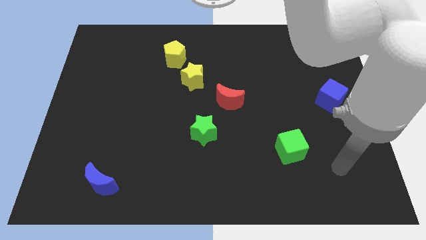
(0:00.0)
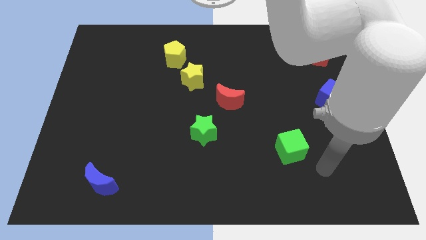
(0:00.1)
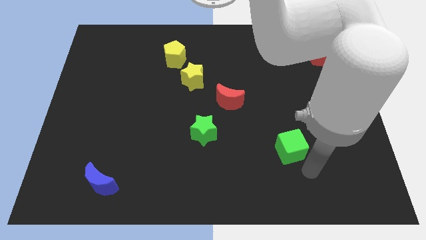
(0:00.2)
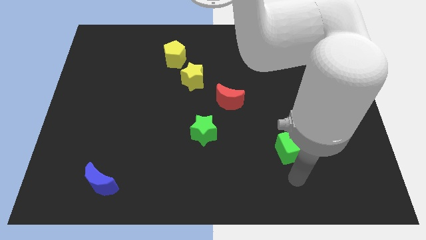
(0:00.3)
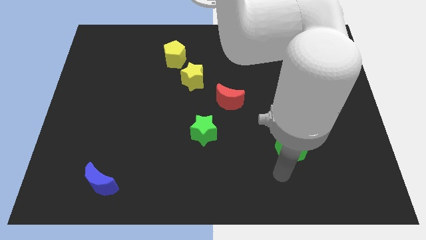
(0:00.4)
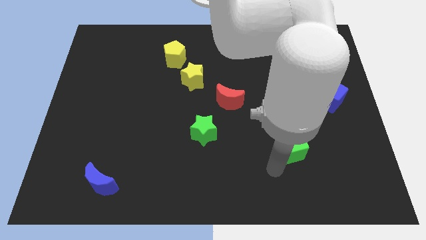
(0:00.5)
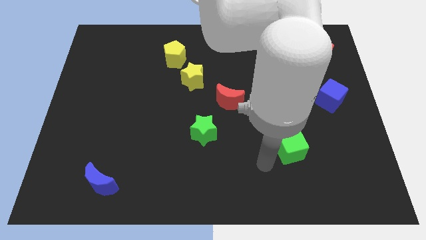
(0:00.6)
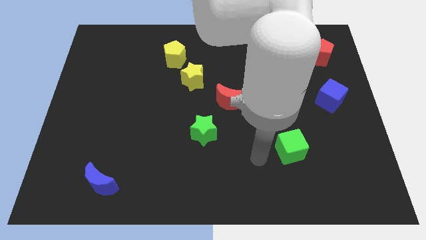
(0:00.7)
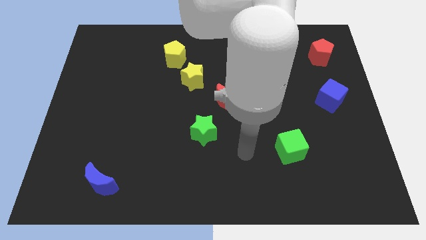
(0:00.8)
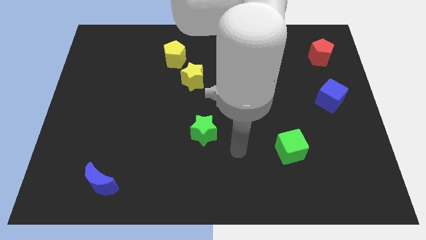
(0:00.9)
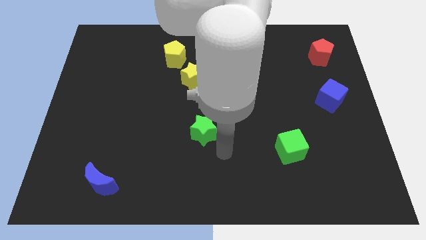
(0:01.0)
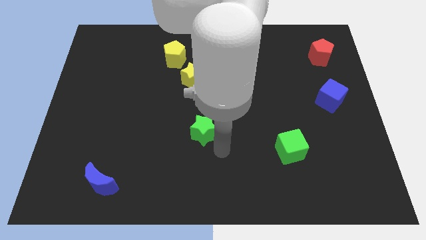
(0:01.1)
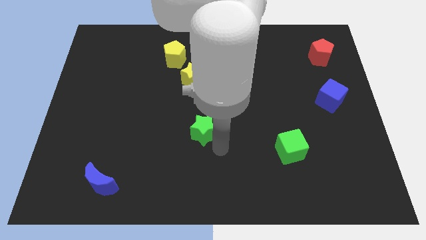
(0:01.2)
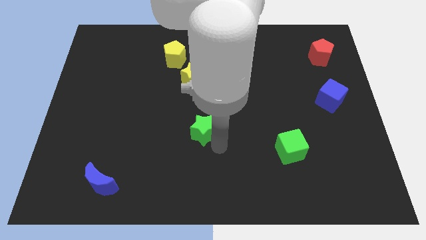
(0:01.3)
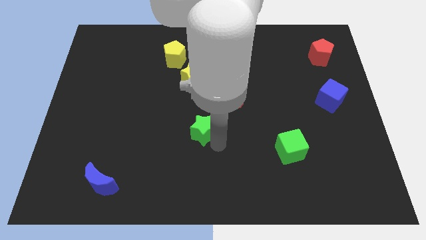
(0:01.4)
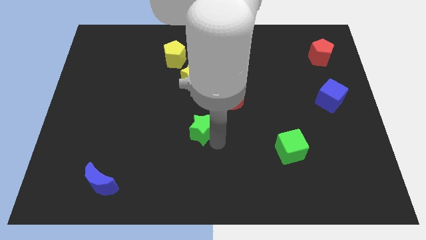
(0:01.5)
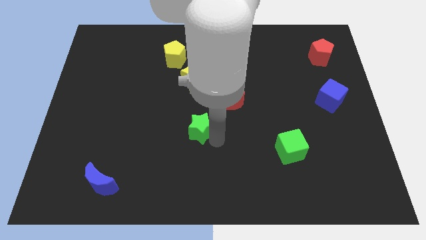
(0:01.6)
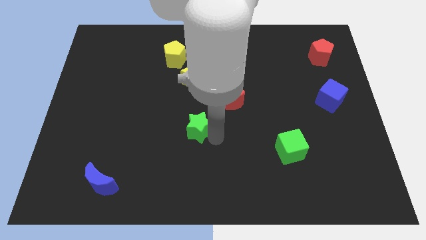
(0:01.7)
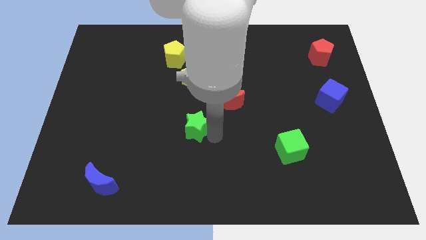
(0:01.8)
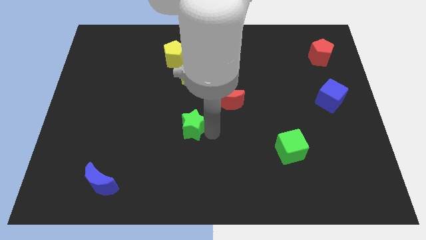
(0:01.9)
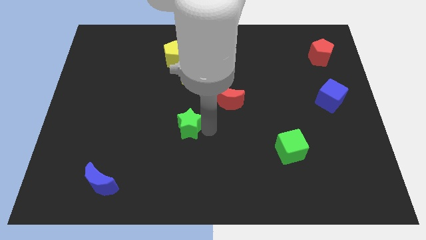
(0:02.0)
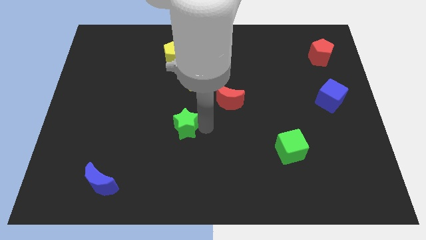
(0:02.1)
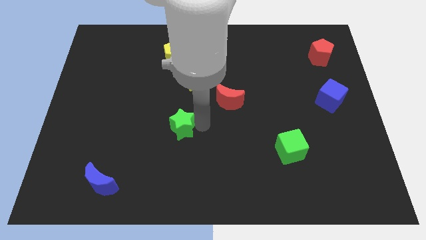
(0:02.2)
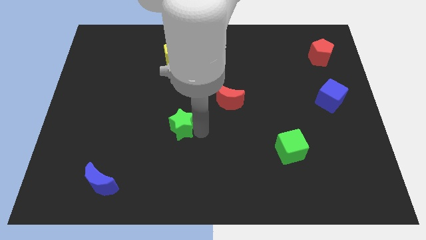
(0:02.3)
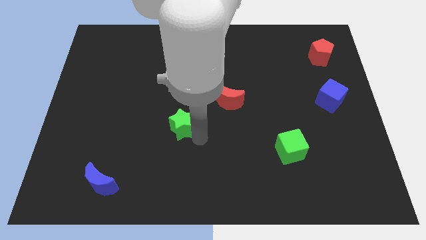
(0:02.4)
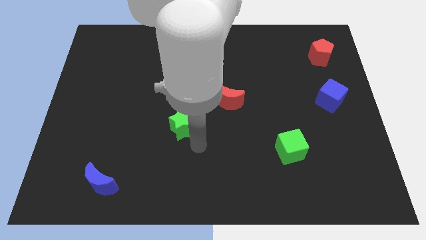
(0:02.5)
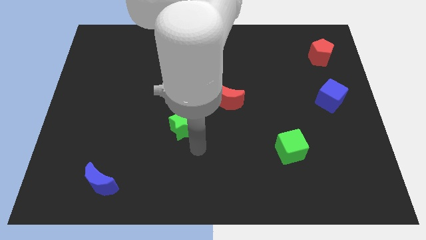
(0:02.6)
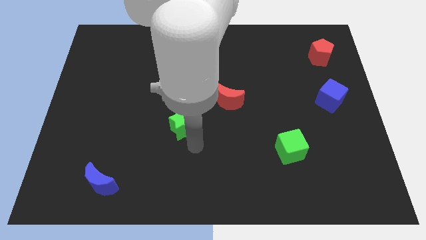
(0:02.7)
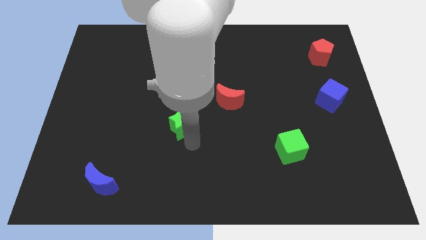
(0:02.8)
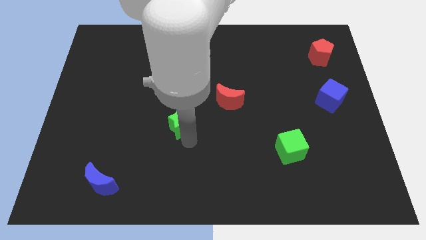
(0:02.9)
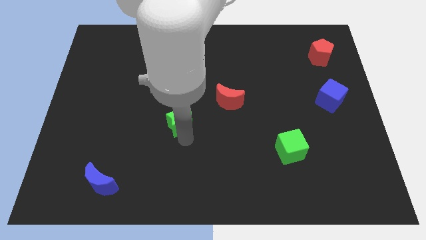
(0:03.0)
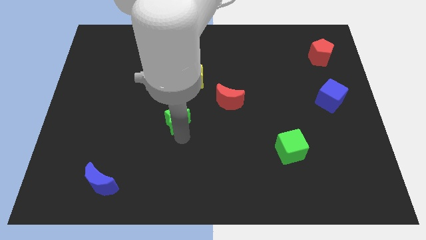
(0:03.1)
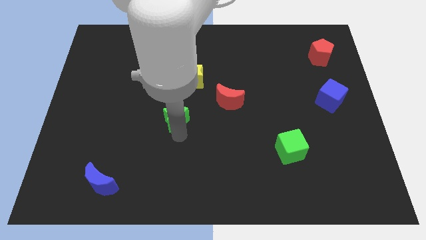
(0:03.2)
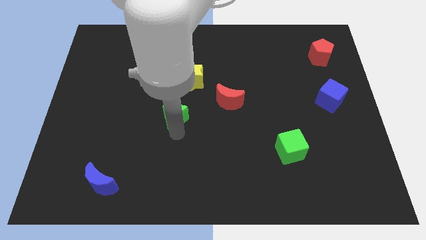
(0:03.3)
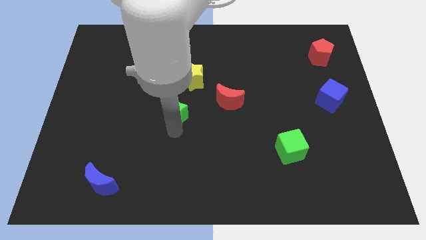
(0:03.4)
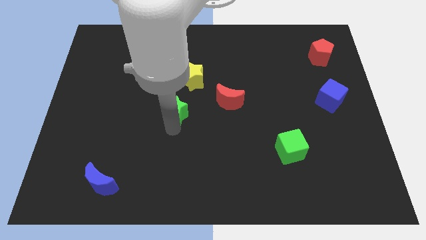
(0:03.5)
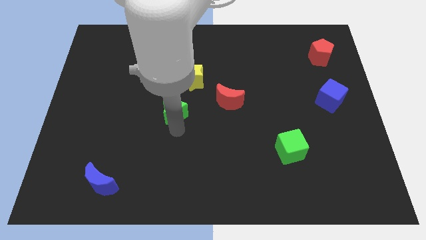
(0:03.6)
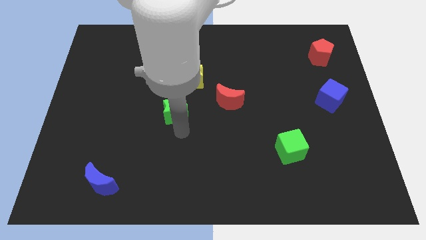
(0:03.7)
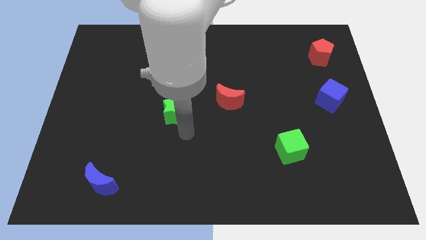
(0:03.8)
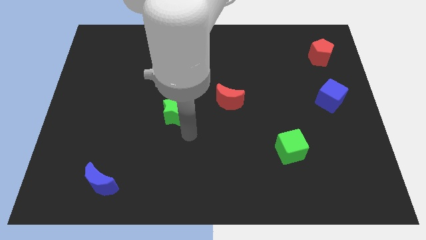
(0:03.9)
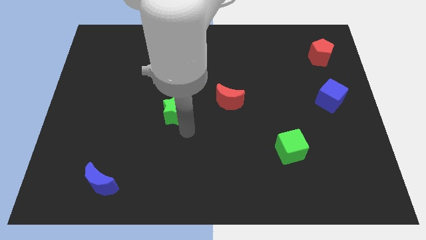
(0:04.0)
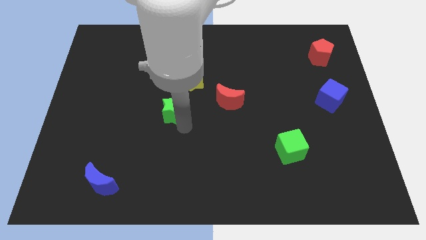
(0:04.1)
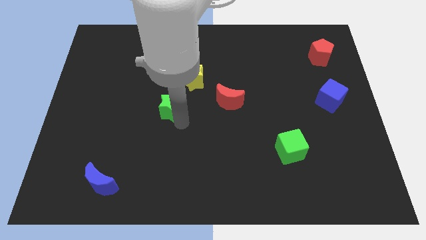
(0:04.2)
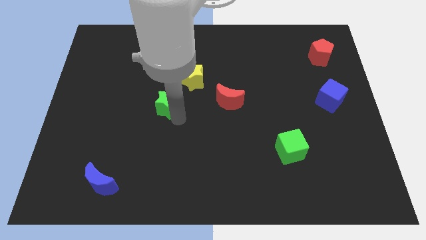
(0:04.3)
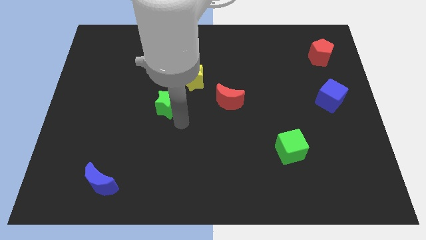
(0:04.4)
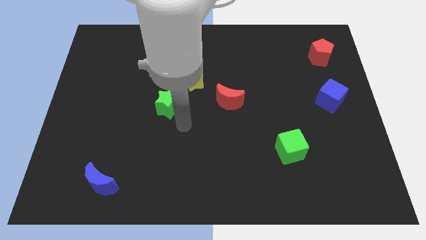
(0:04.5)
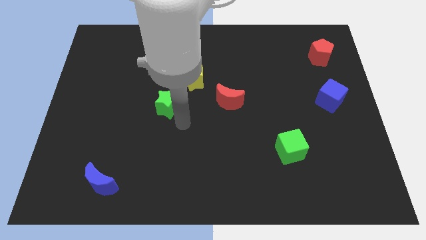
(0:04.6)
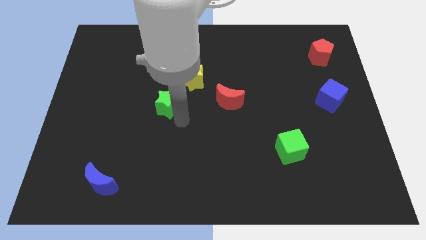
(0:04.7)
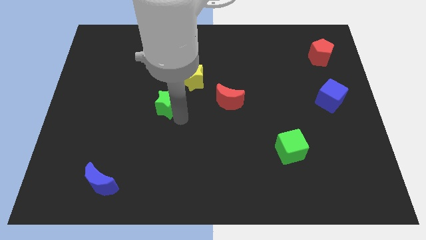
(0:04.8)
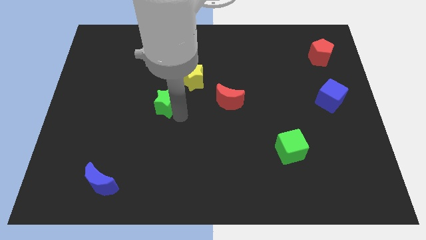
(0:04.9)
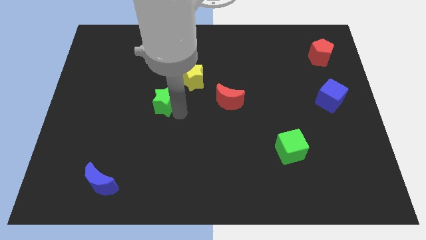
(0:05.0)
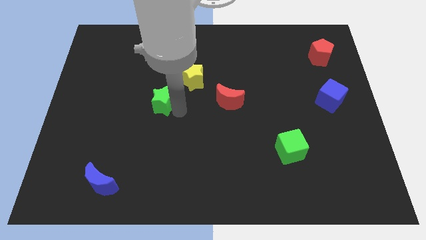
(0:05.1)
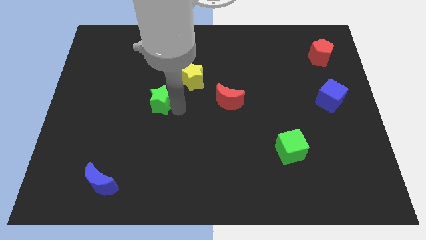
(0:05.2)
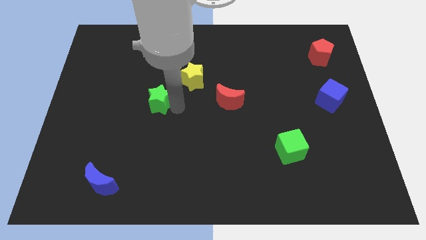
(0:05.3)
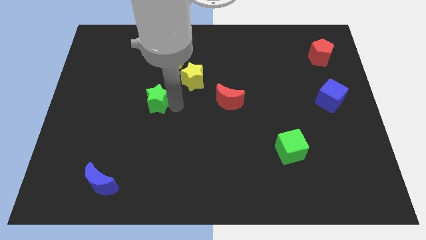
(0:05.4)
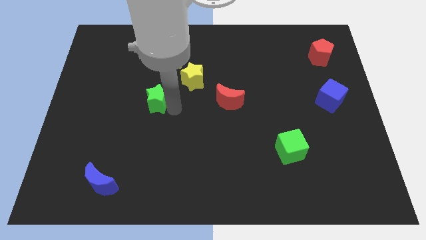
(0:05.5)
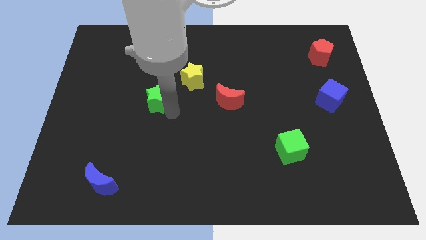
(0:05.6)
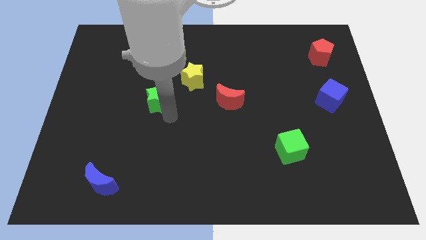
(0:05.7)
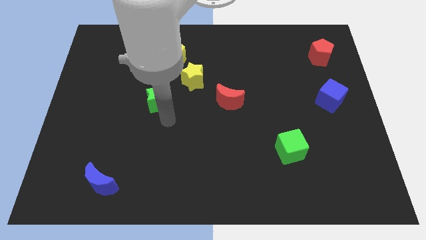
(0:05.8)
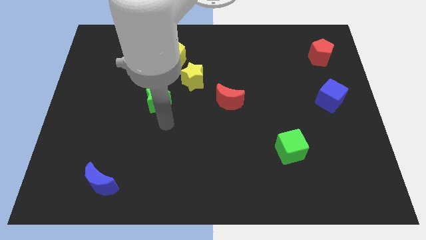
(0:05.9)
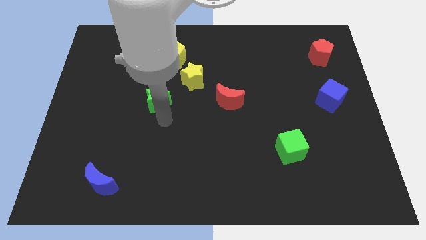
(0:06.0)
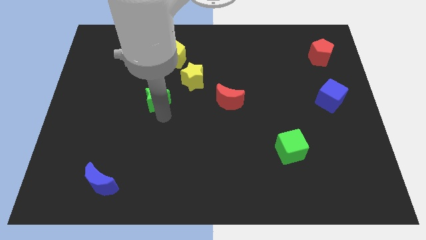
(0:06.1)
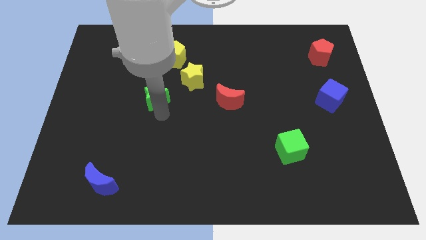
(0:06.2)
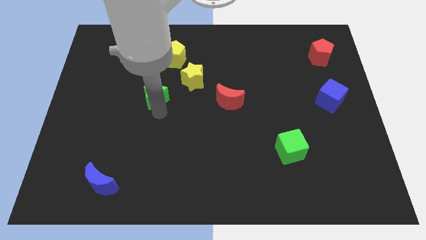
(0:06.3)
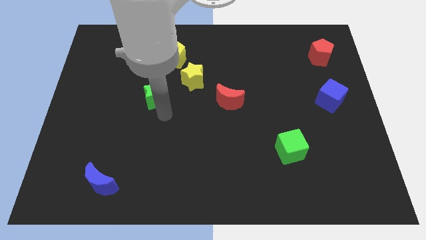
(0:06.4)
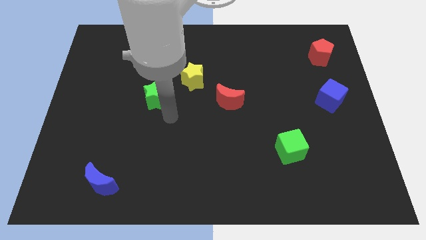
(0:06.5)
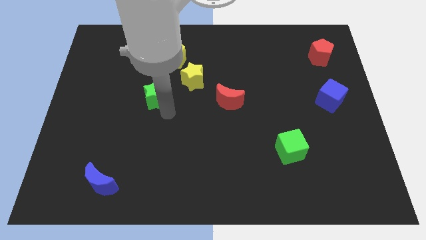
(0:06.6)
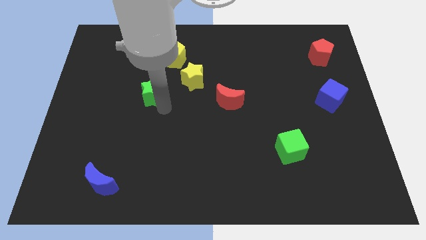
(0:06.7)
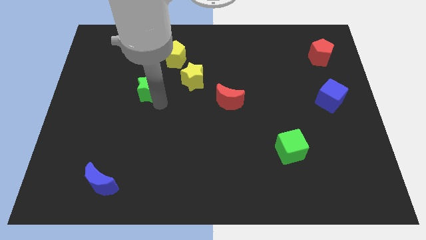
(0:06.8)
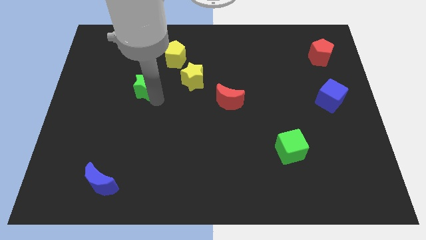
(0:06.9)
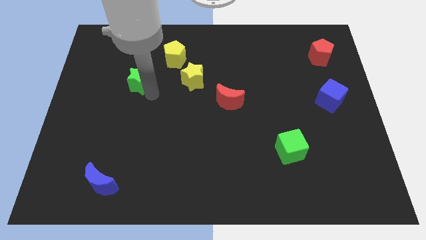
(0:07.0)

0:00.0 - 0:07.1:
move the green star upwards and then left

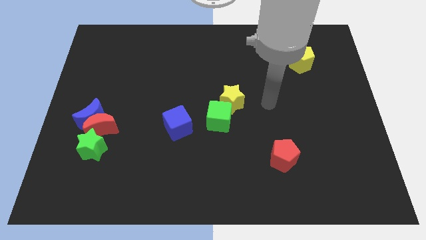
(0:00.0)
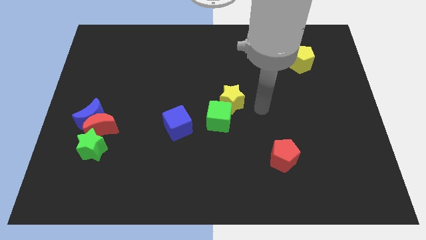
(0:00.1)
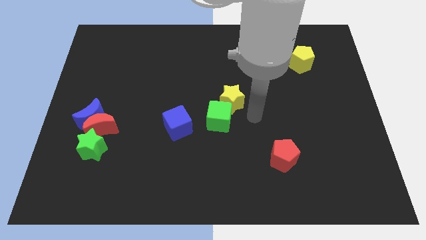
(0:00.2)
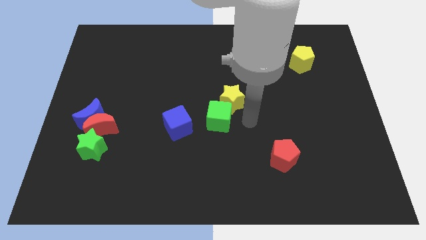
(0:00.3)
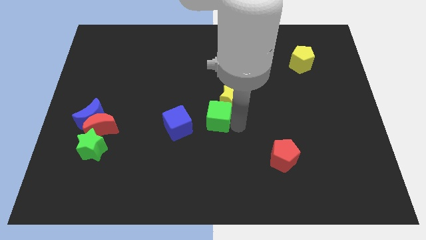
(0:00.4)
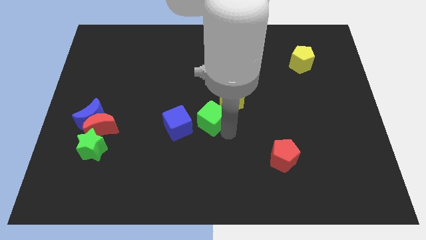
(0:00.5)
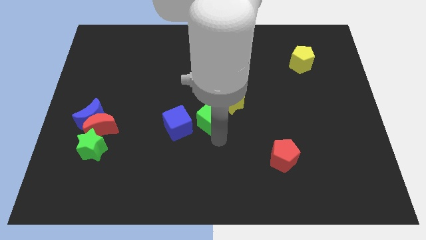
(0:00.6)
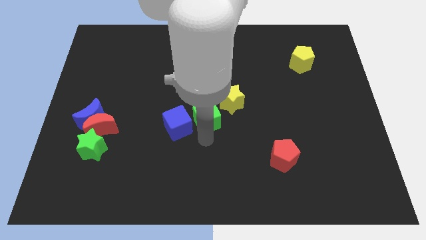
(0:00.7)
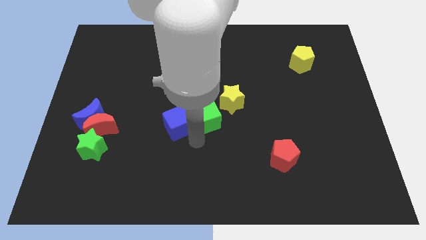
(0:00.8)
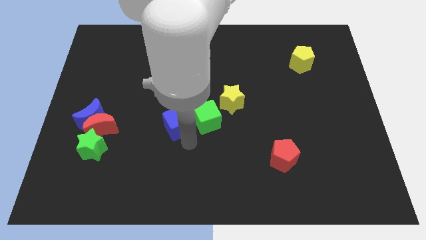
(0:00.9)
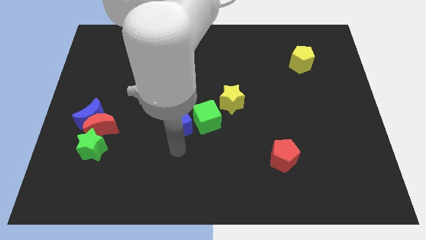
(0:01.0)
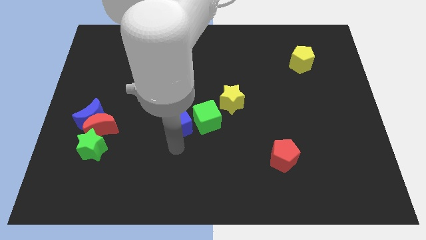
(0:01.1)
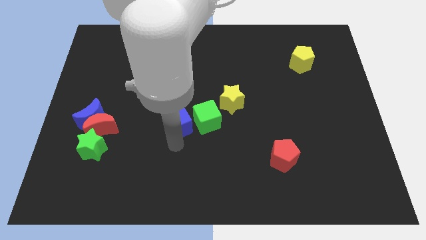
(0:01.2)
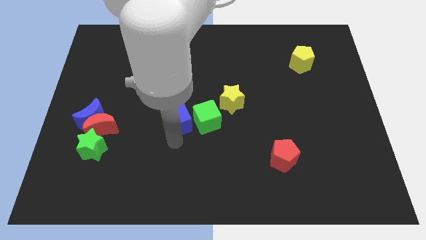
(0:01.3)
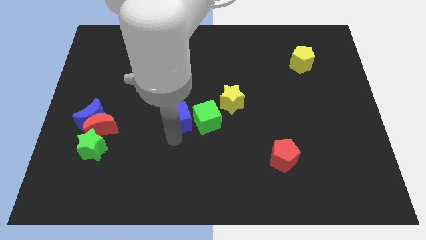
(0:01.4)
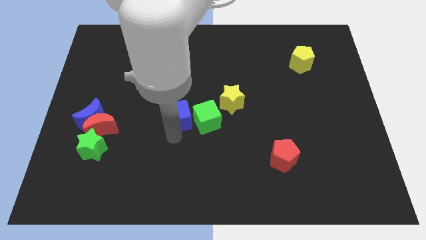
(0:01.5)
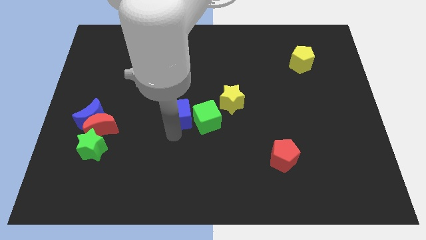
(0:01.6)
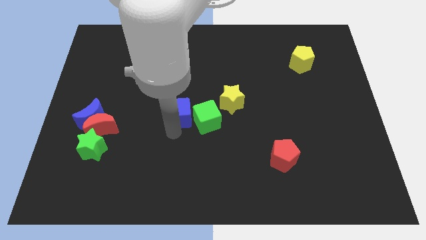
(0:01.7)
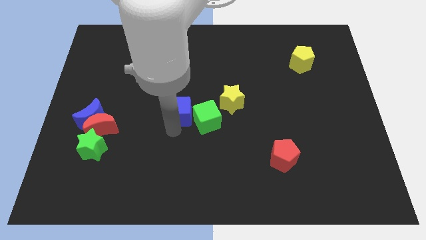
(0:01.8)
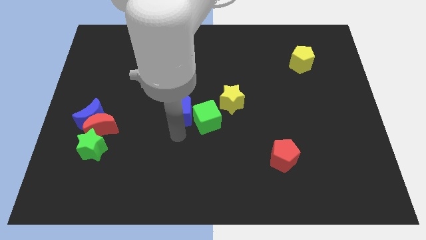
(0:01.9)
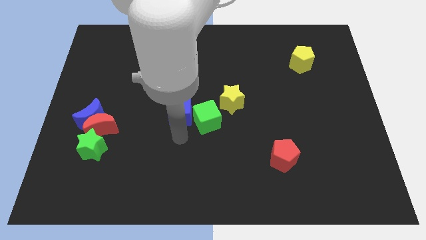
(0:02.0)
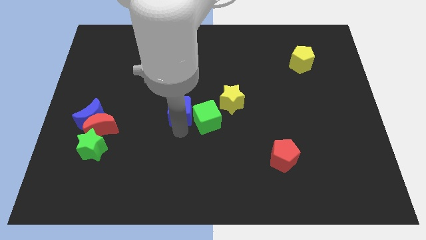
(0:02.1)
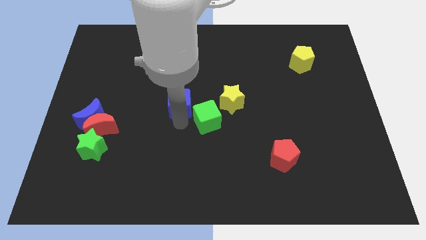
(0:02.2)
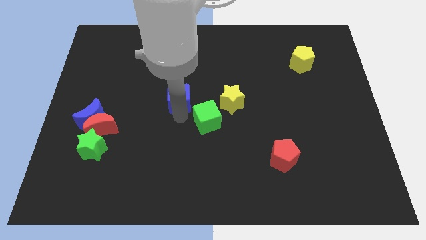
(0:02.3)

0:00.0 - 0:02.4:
push the blue cube upwards slightly
